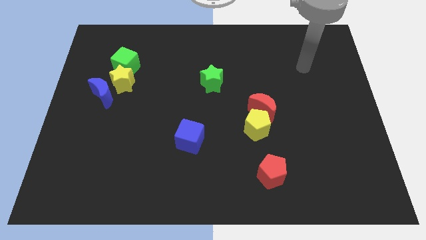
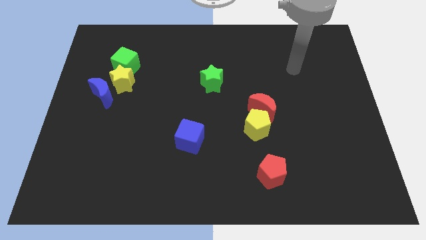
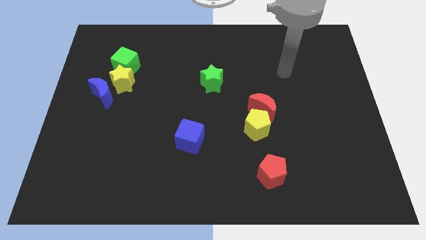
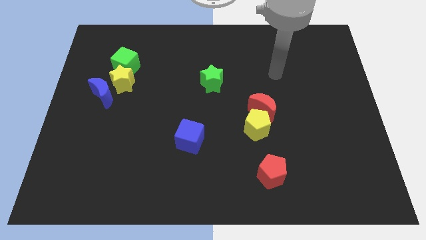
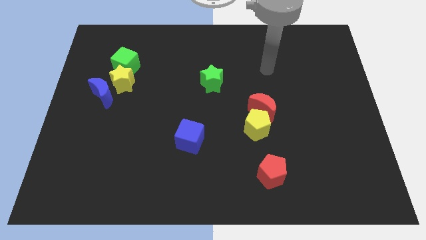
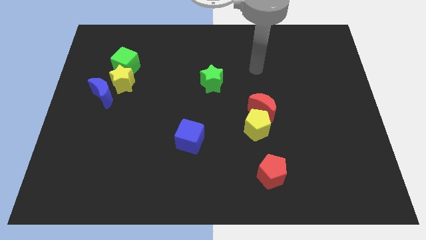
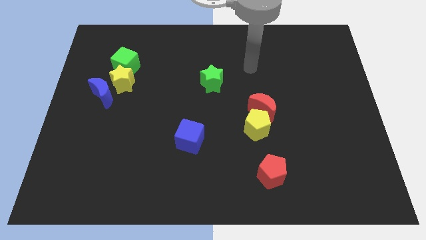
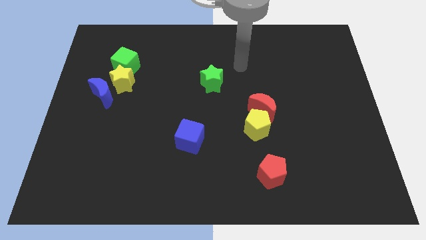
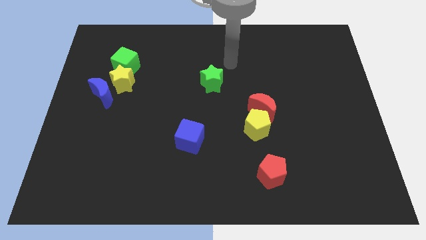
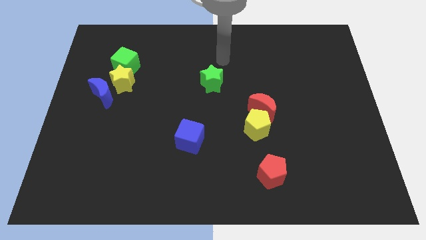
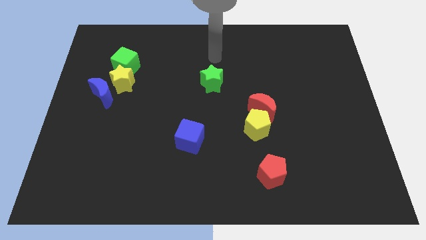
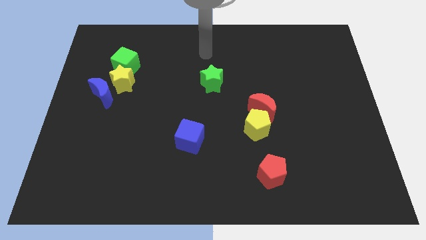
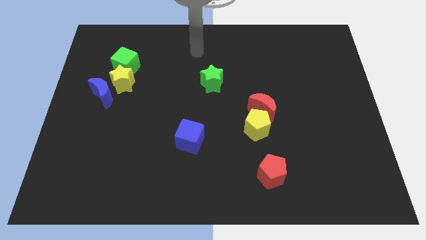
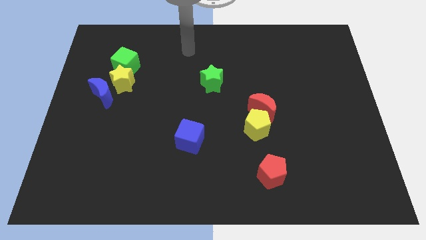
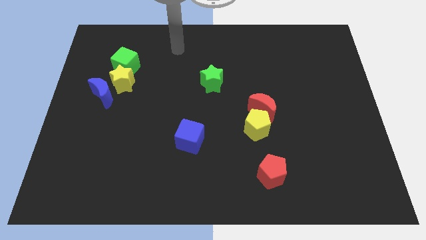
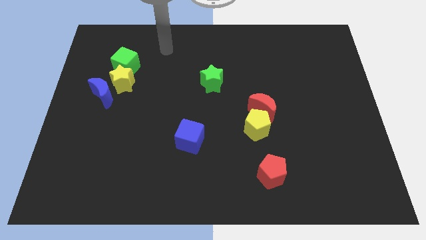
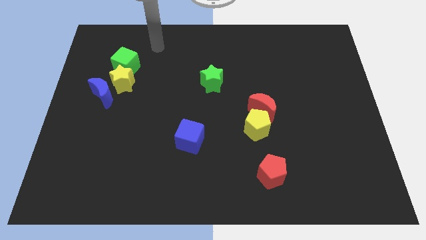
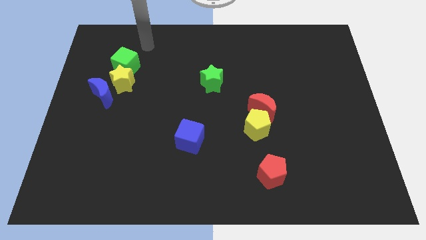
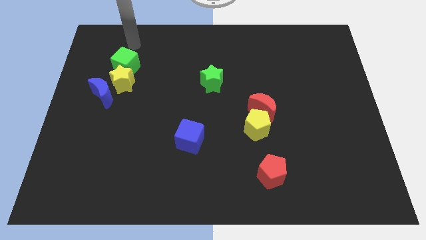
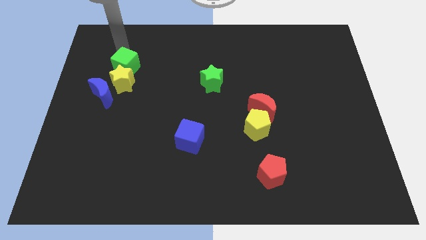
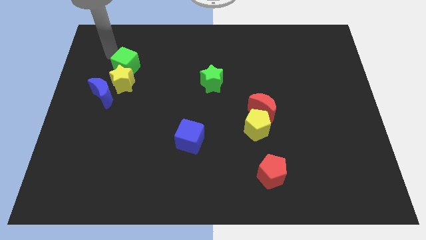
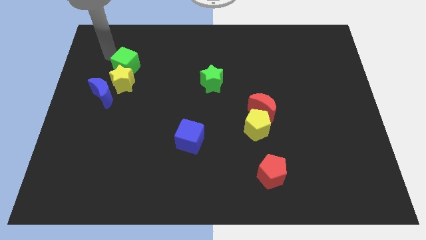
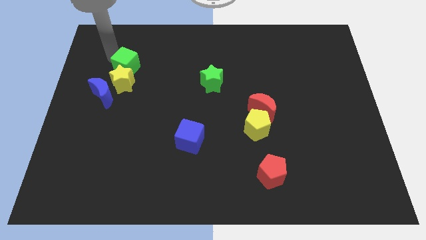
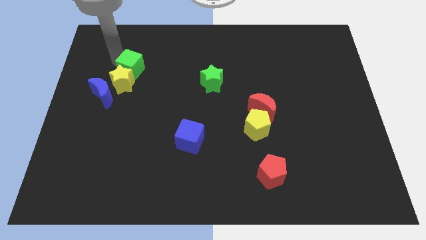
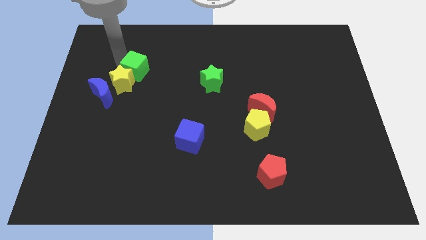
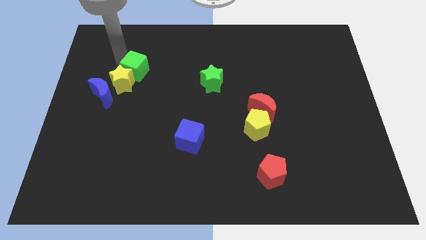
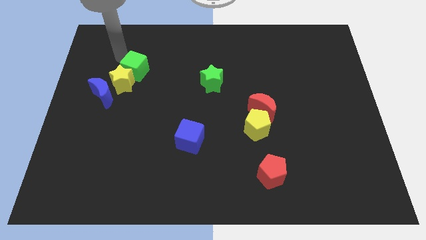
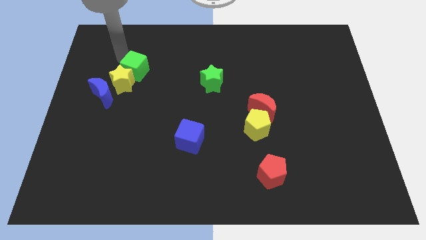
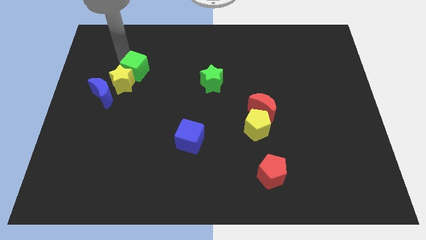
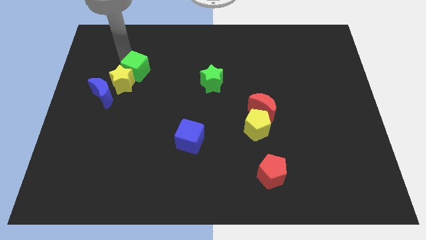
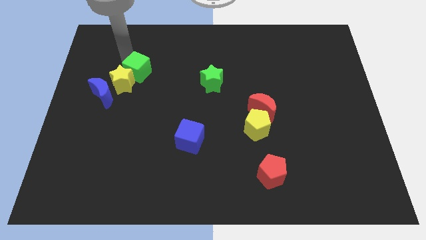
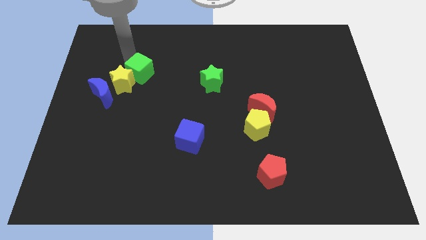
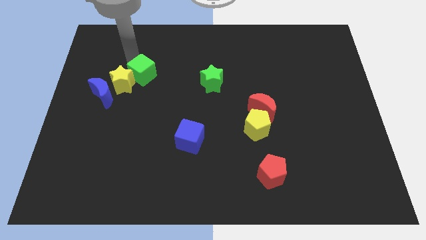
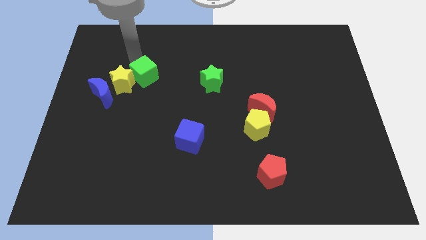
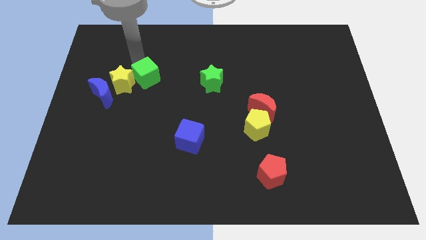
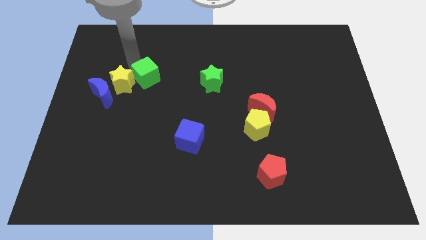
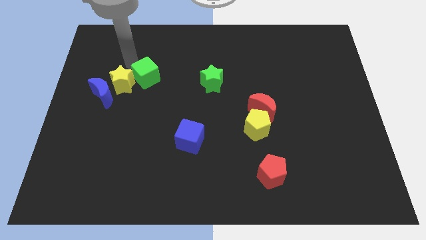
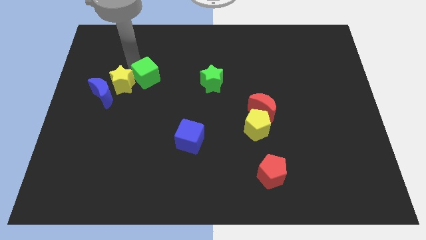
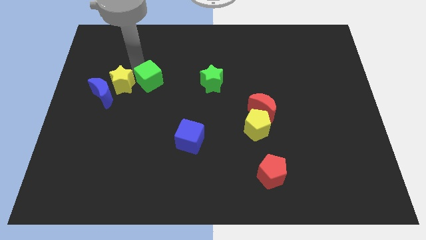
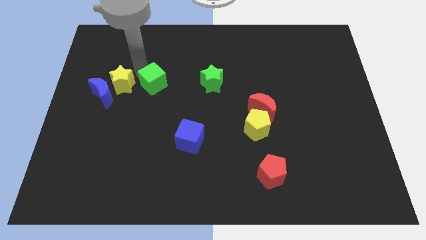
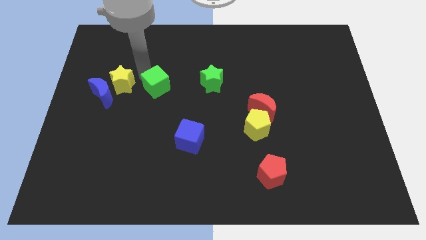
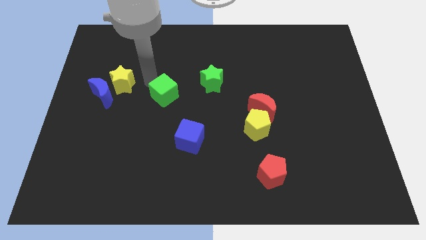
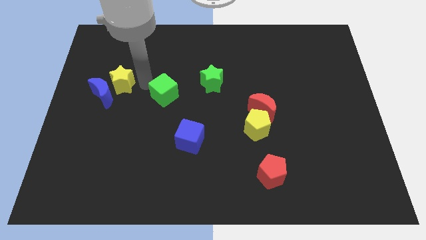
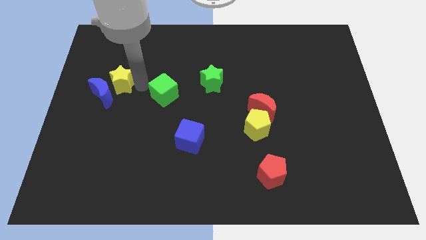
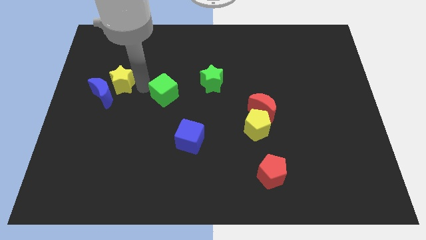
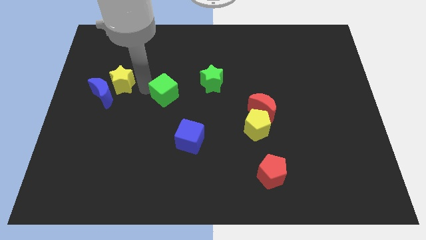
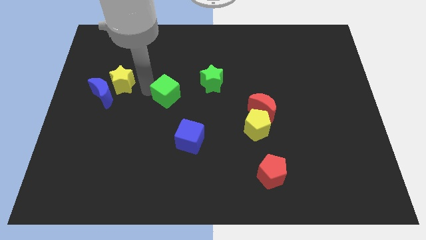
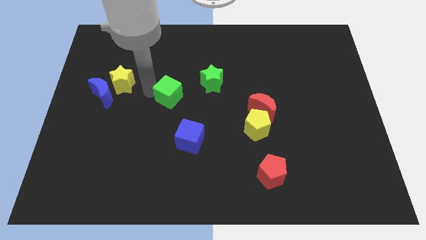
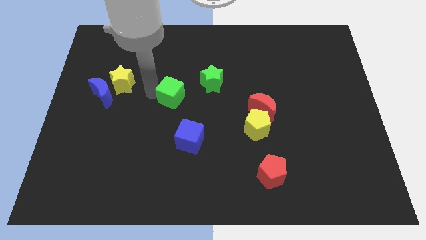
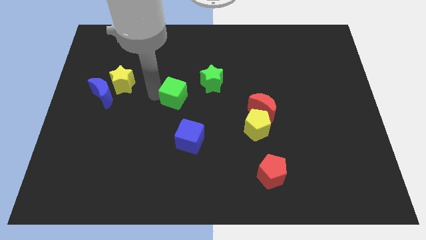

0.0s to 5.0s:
move the green cube to the top side of the blue cube

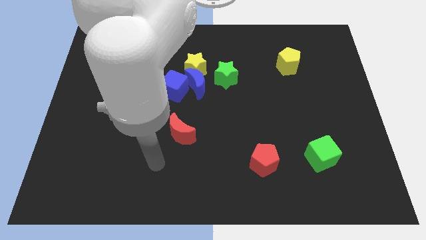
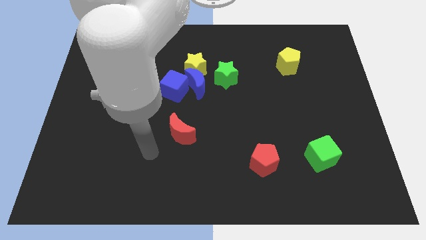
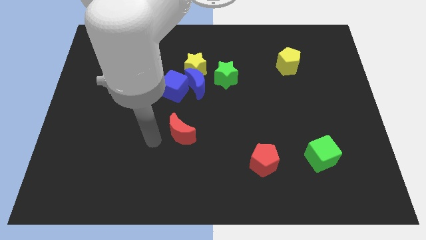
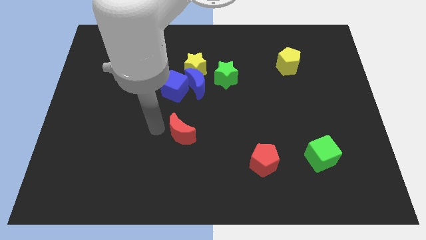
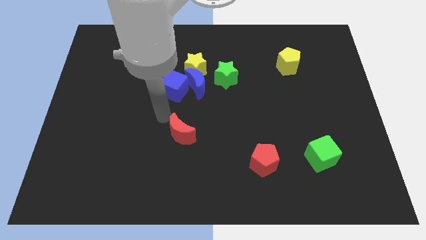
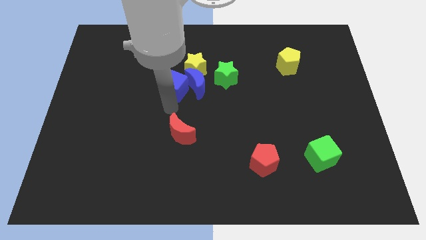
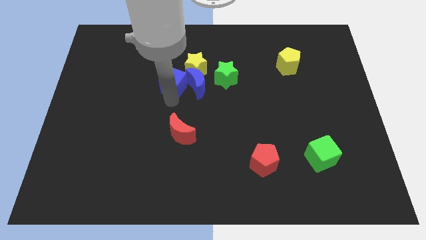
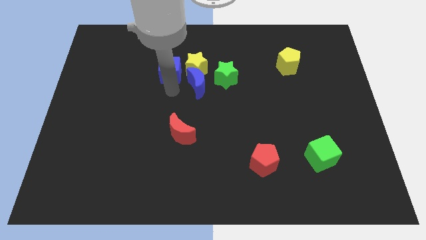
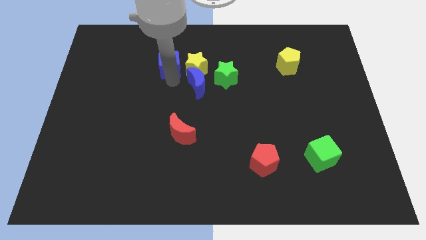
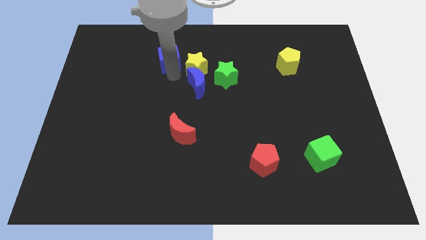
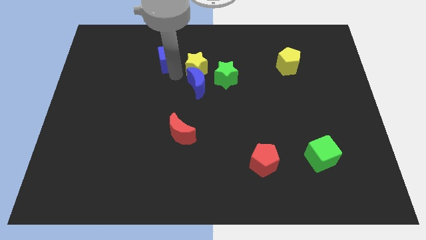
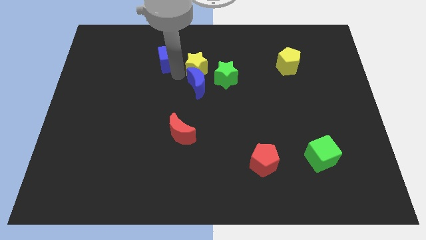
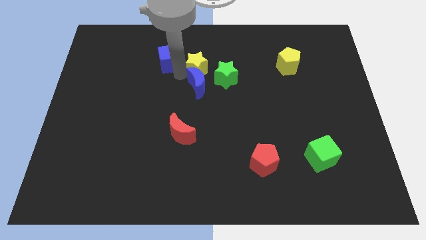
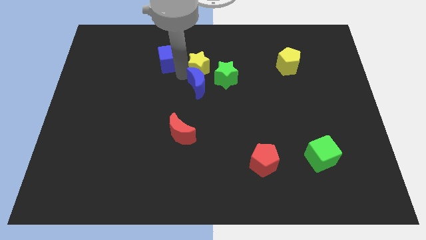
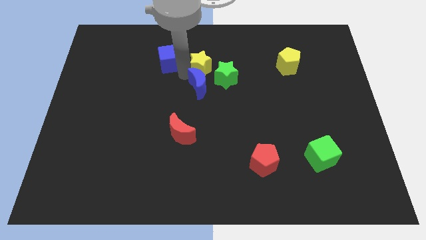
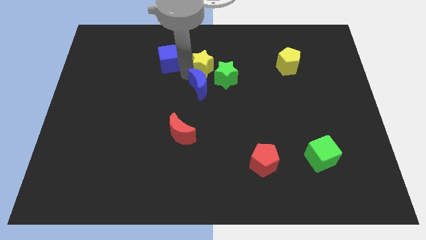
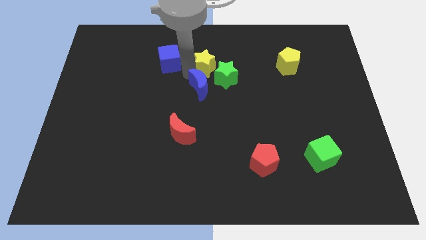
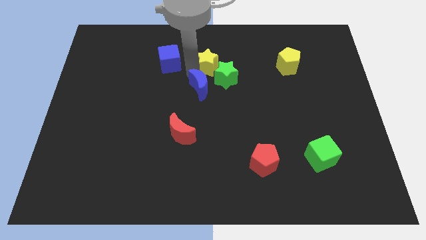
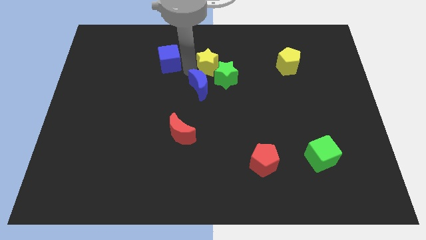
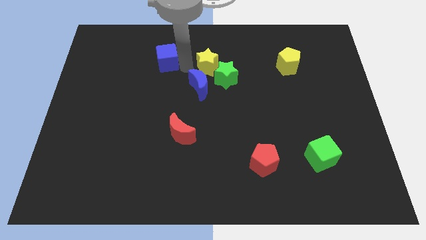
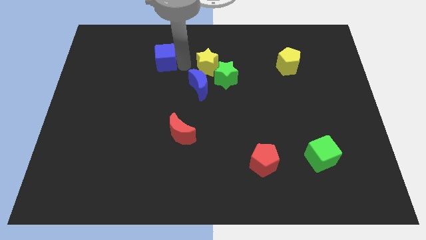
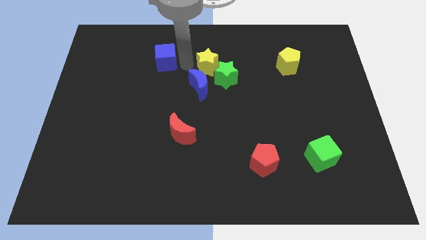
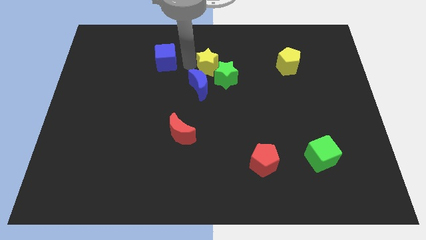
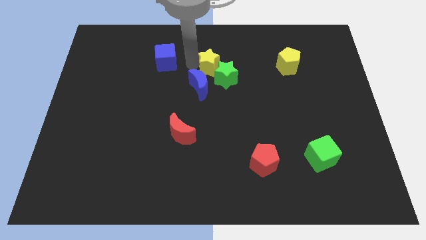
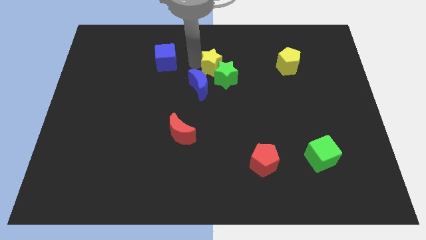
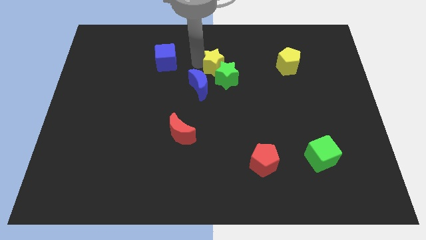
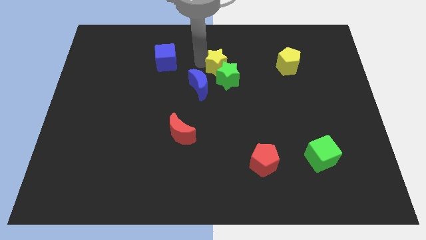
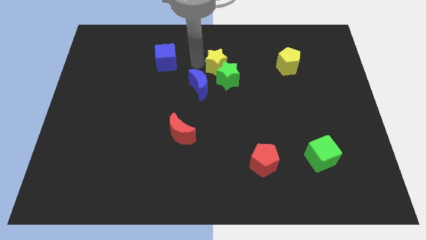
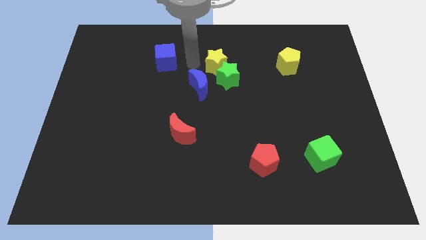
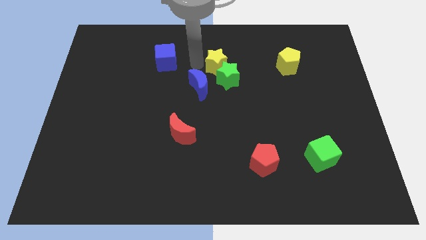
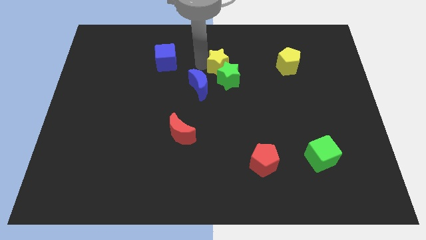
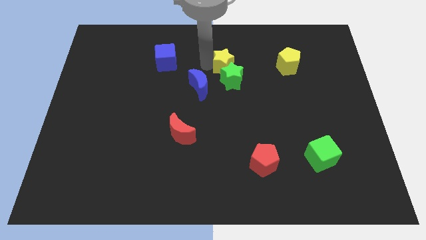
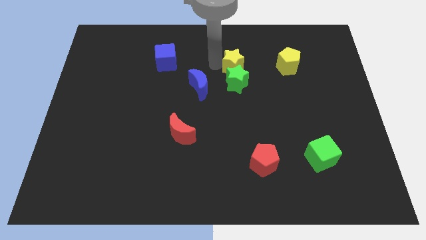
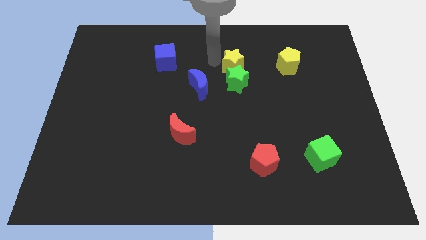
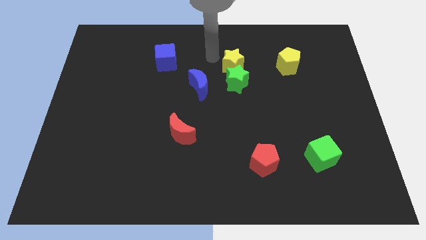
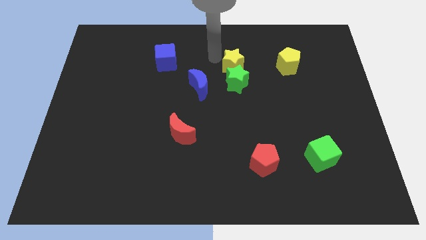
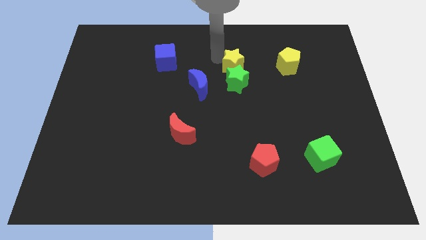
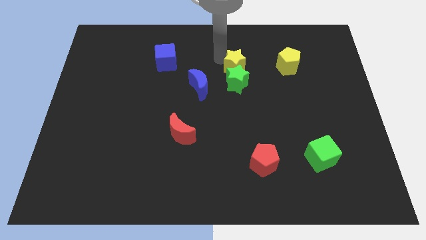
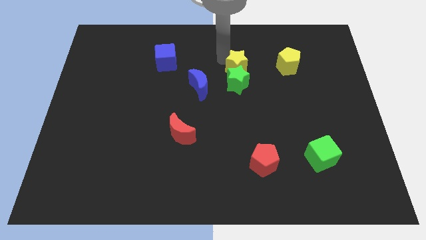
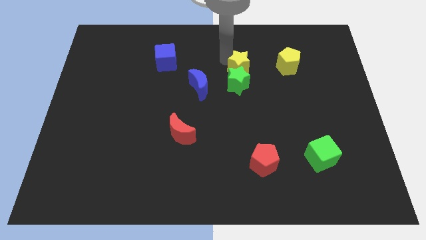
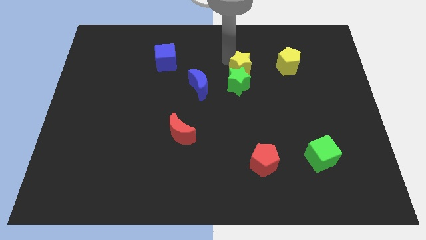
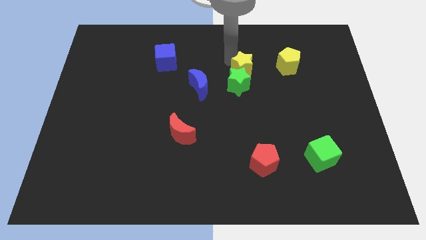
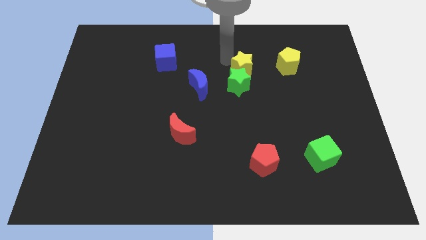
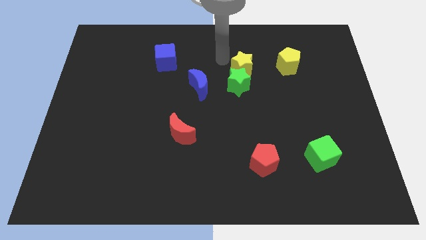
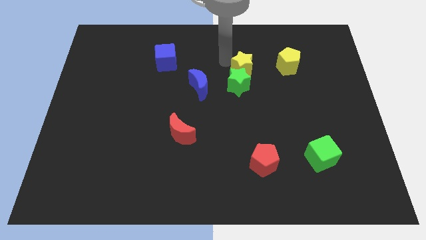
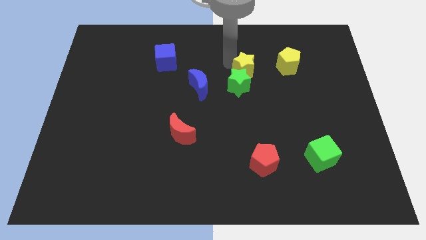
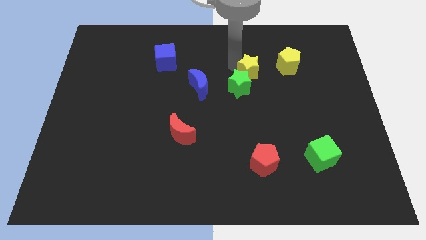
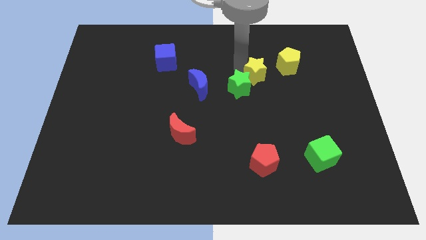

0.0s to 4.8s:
move the yellow star diagonally down and to the left of the yellow pentagon
